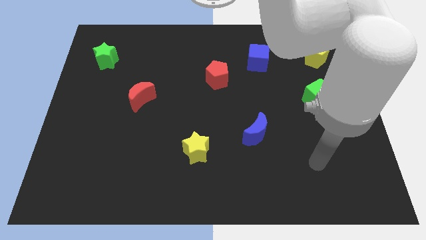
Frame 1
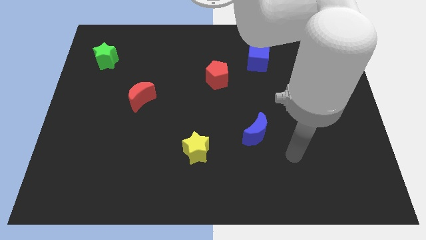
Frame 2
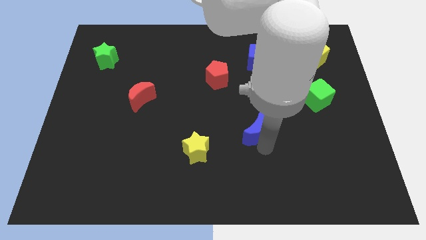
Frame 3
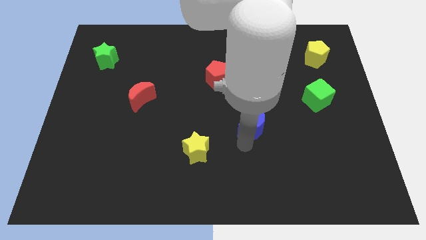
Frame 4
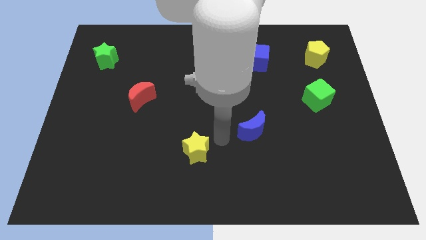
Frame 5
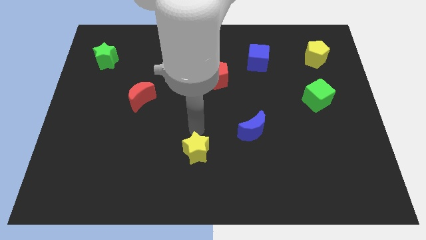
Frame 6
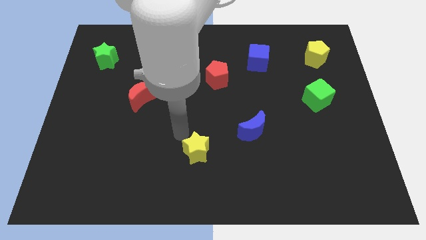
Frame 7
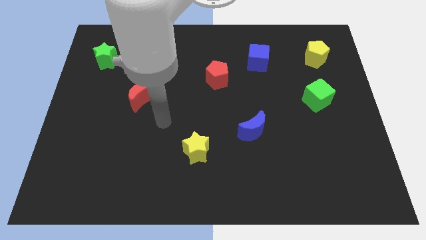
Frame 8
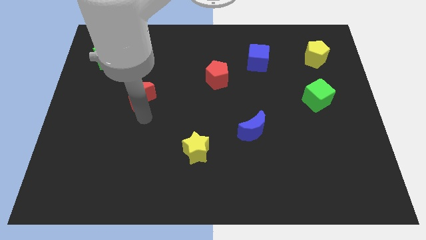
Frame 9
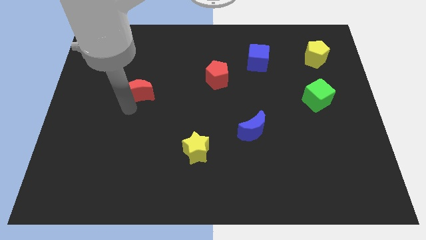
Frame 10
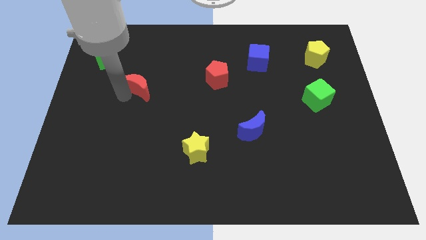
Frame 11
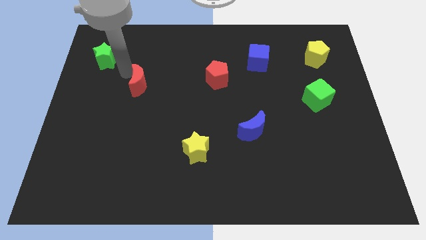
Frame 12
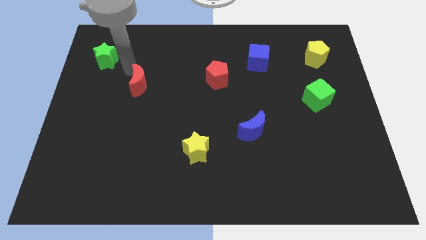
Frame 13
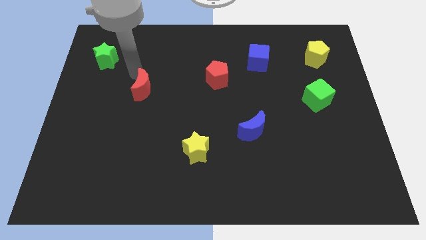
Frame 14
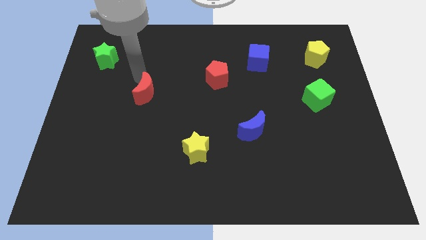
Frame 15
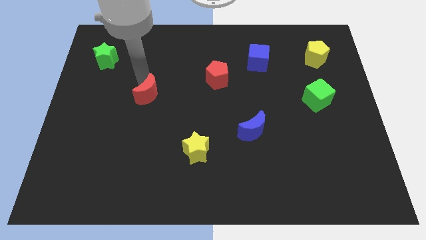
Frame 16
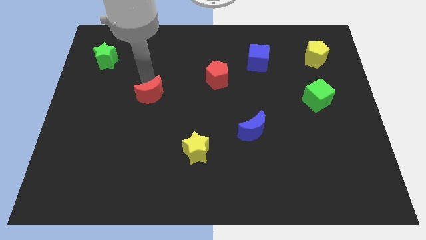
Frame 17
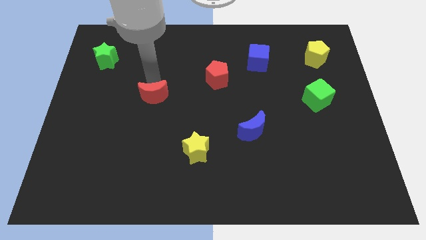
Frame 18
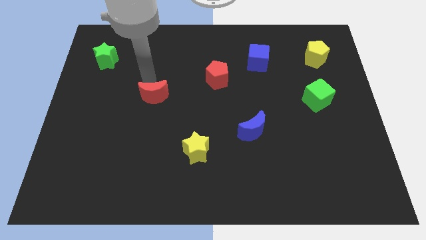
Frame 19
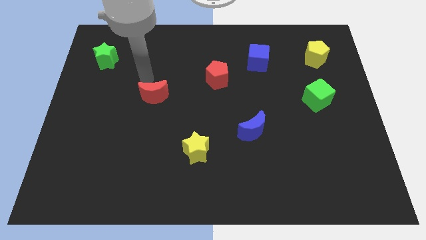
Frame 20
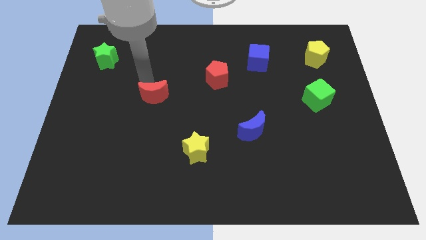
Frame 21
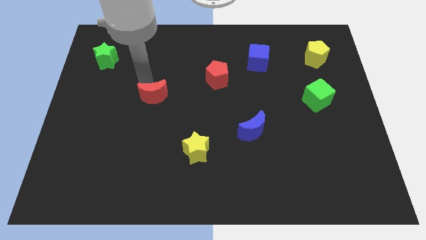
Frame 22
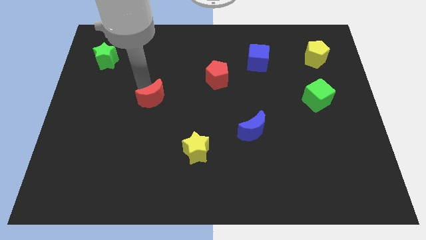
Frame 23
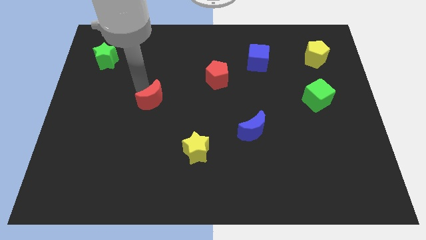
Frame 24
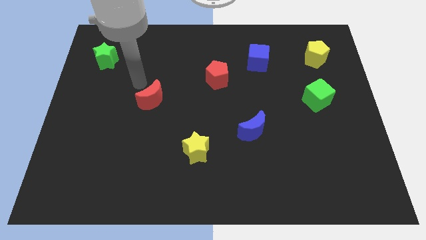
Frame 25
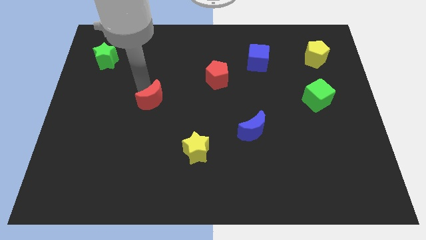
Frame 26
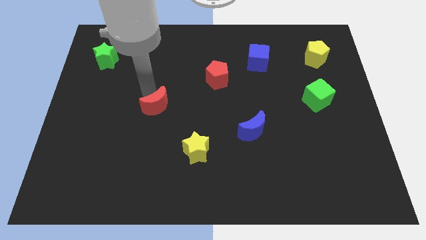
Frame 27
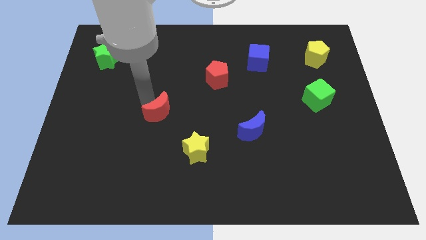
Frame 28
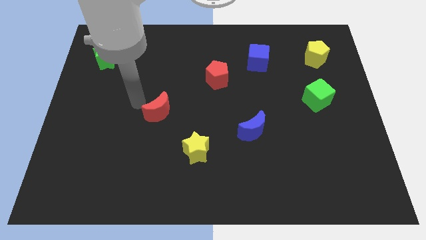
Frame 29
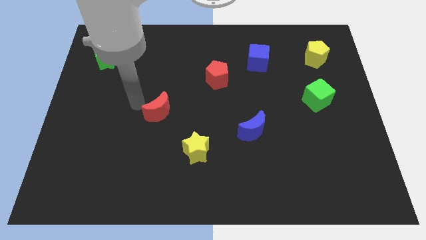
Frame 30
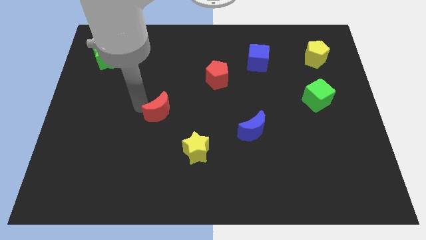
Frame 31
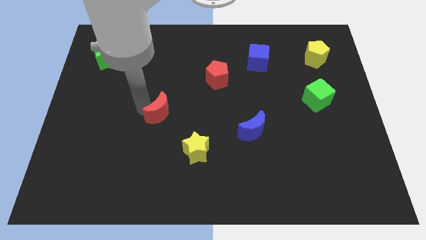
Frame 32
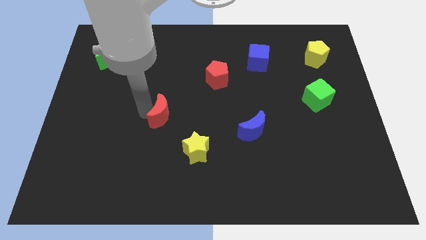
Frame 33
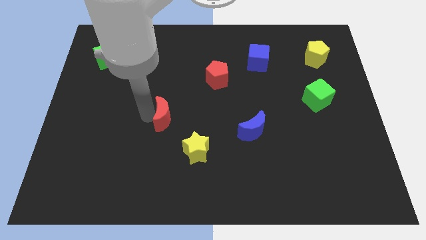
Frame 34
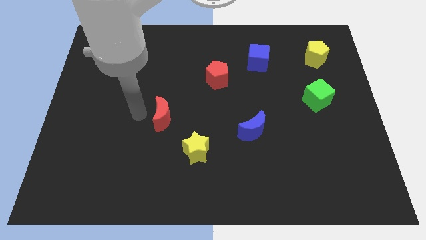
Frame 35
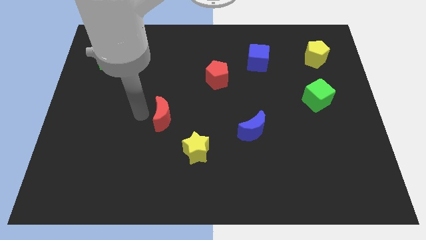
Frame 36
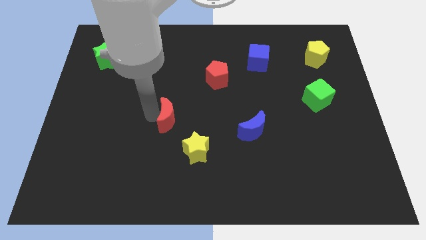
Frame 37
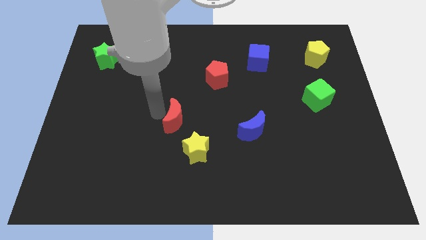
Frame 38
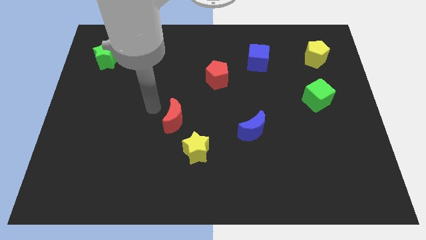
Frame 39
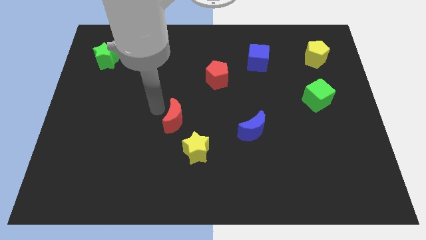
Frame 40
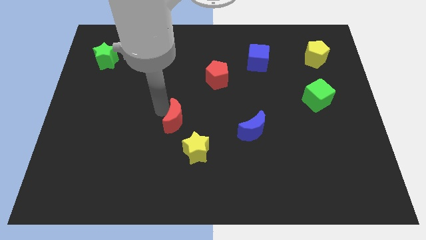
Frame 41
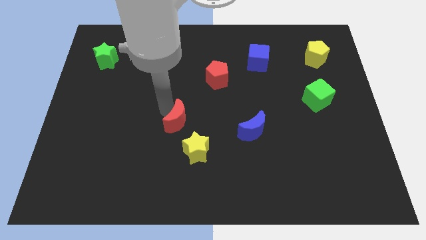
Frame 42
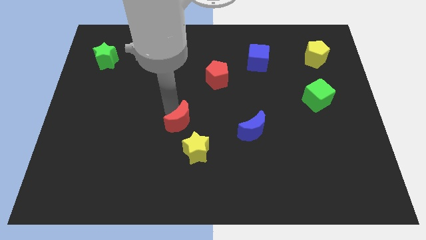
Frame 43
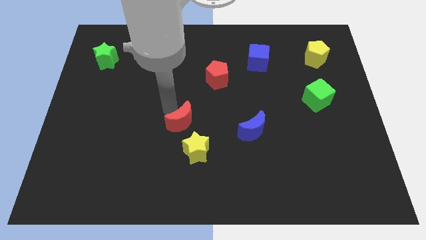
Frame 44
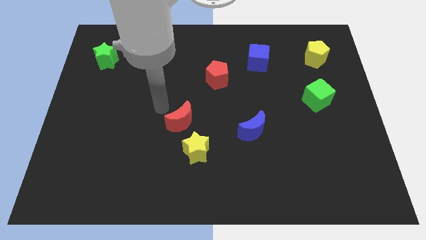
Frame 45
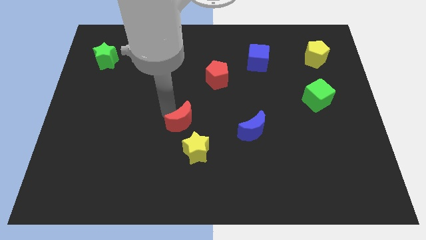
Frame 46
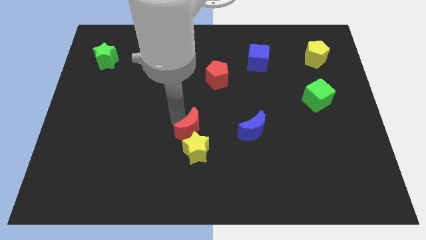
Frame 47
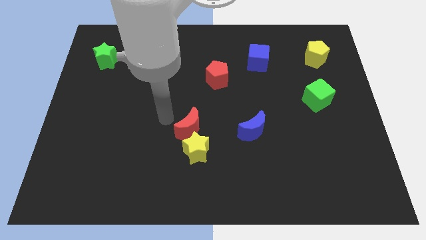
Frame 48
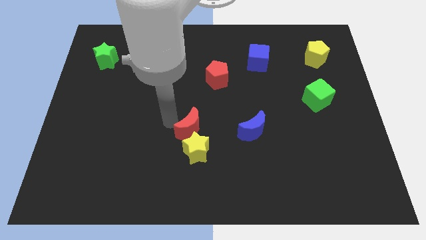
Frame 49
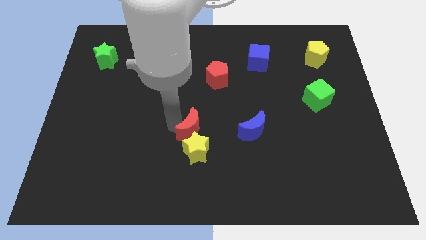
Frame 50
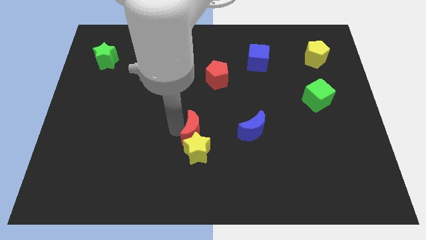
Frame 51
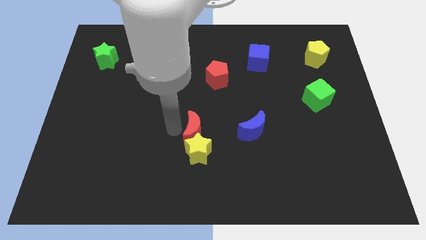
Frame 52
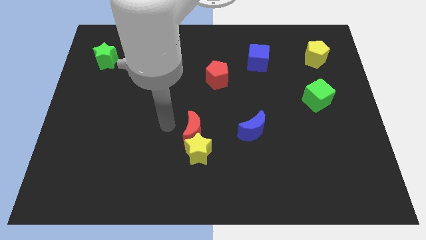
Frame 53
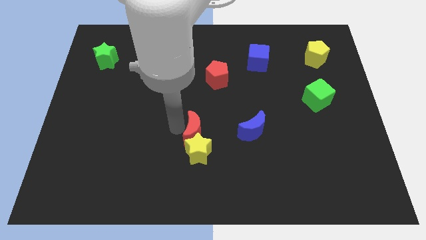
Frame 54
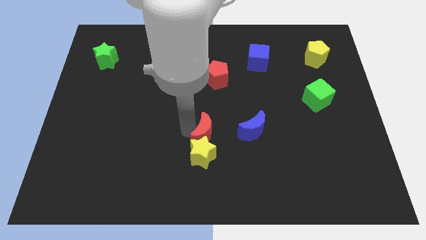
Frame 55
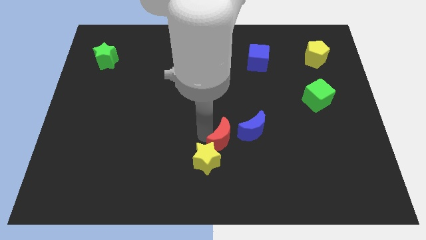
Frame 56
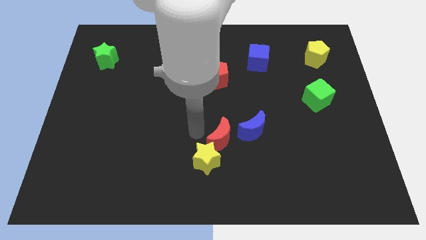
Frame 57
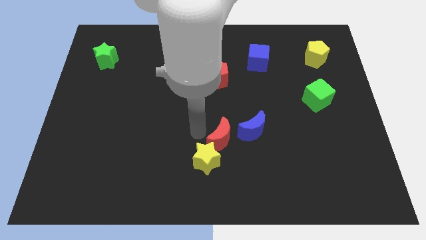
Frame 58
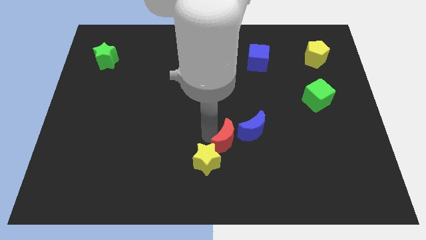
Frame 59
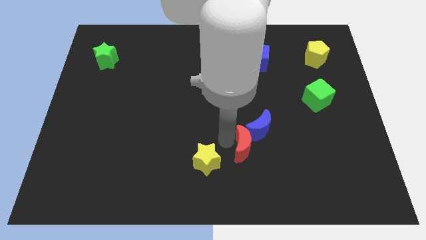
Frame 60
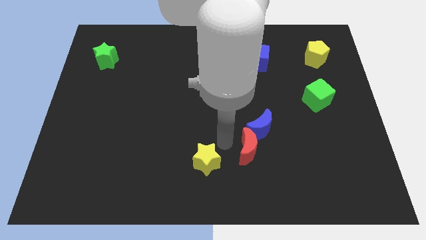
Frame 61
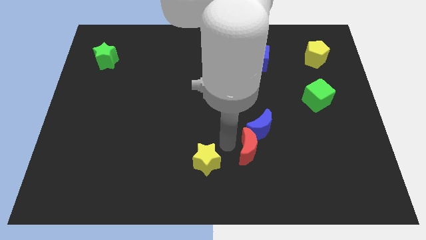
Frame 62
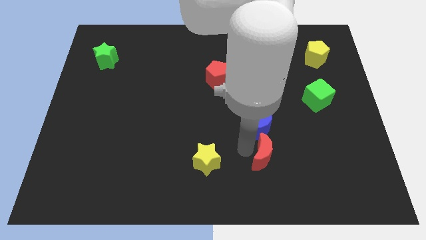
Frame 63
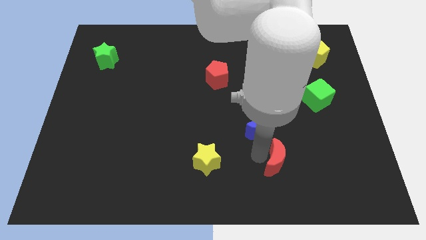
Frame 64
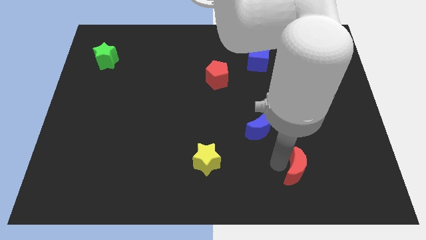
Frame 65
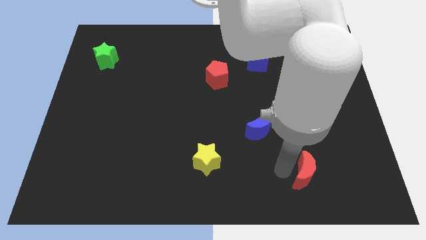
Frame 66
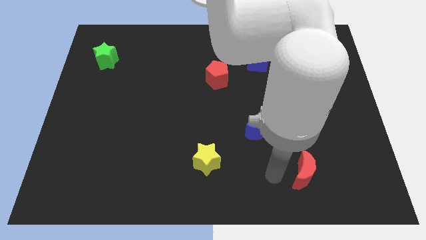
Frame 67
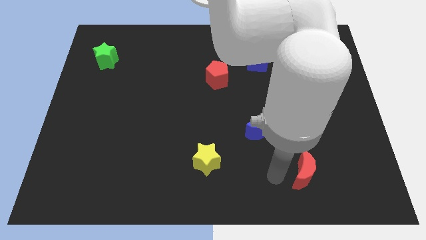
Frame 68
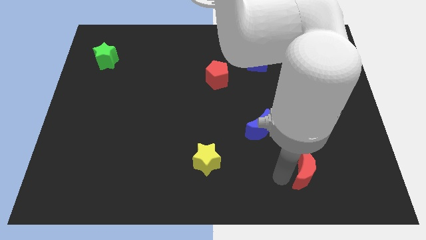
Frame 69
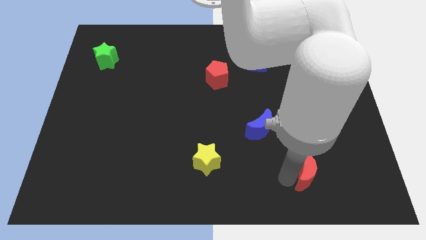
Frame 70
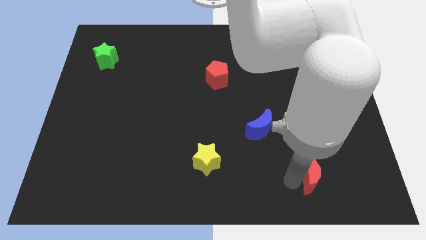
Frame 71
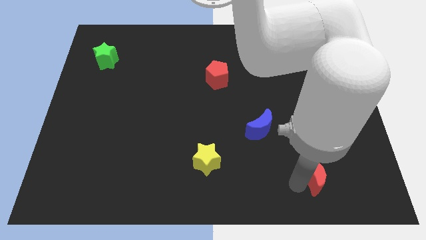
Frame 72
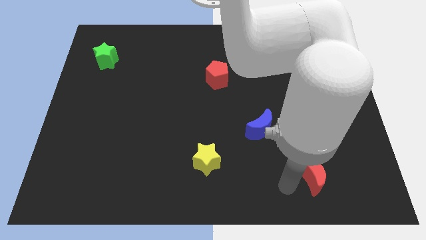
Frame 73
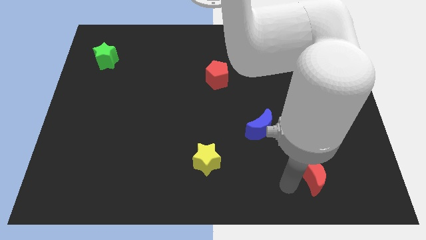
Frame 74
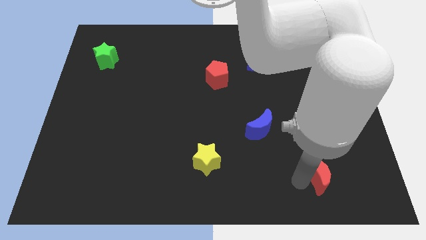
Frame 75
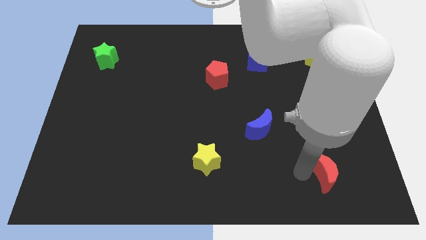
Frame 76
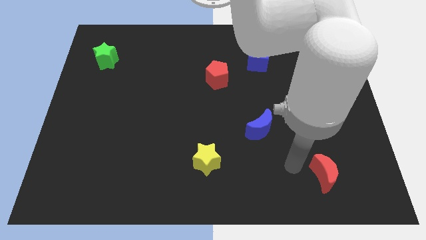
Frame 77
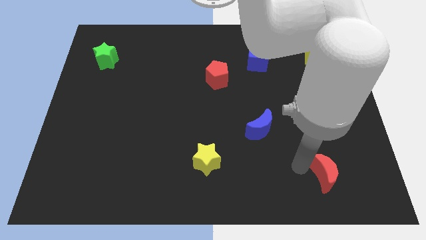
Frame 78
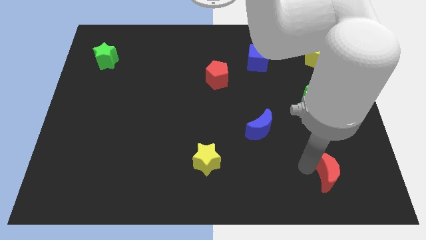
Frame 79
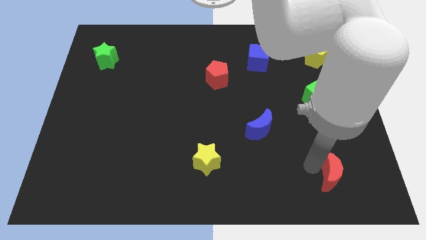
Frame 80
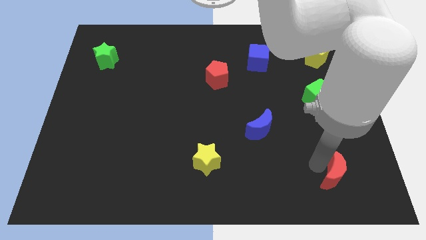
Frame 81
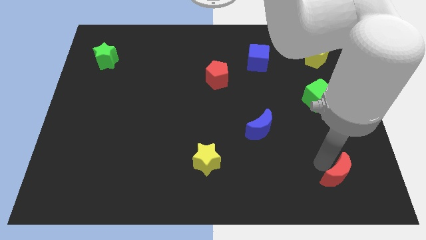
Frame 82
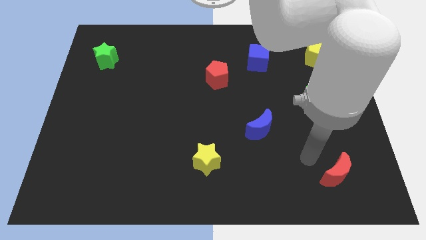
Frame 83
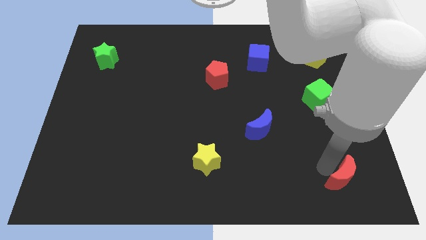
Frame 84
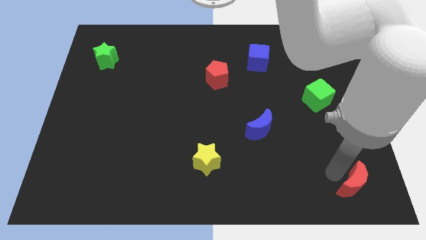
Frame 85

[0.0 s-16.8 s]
push the red moon to the bottom right of the board
